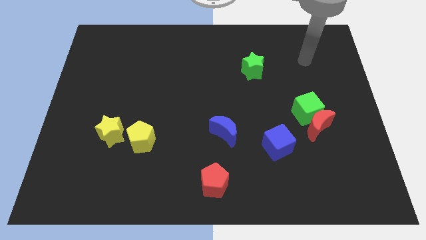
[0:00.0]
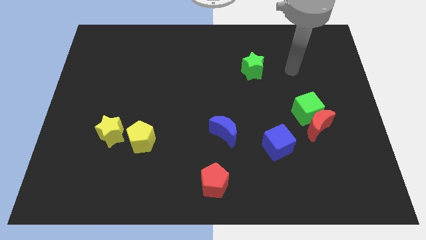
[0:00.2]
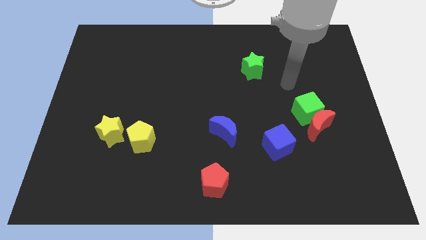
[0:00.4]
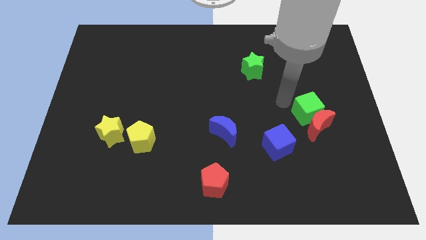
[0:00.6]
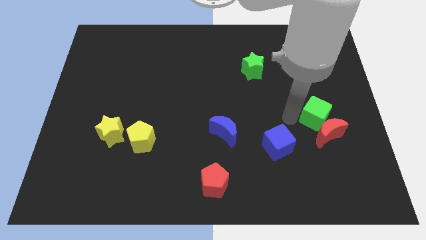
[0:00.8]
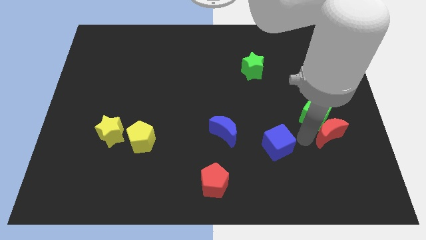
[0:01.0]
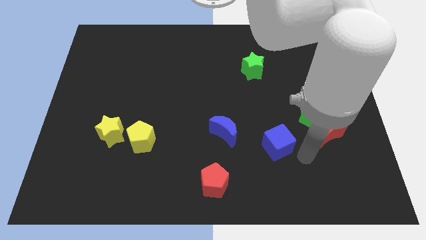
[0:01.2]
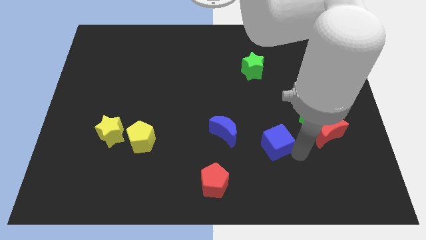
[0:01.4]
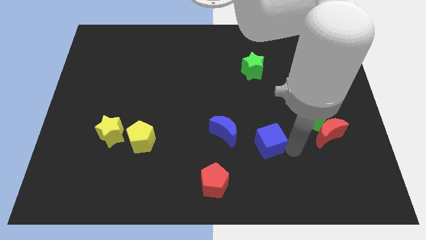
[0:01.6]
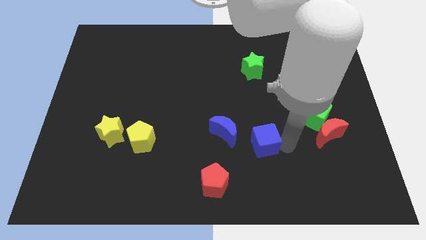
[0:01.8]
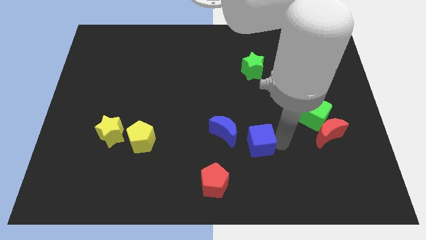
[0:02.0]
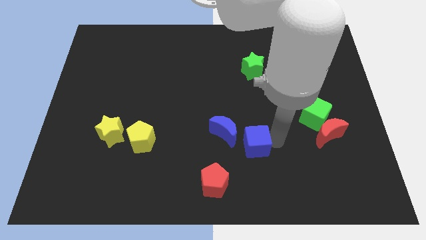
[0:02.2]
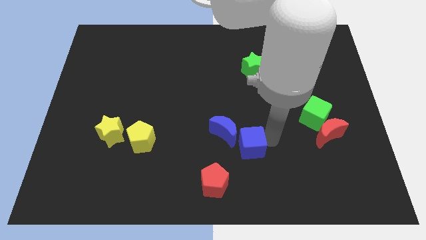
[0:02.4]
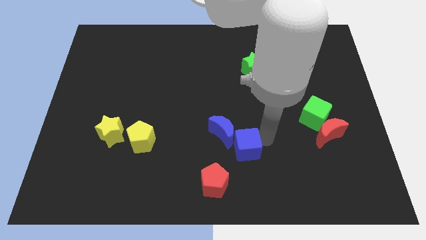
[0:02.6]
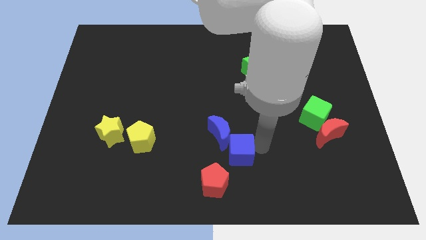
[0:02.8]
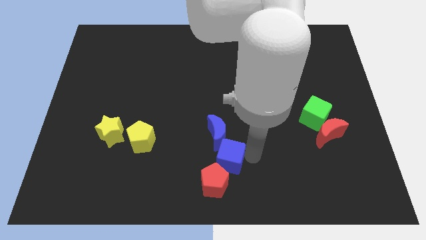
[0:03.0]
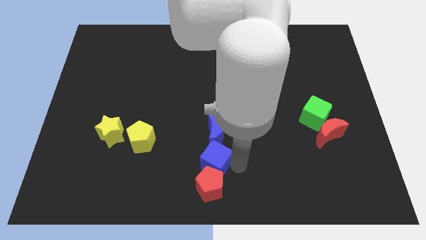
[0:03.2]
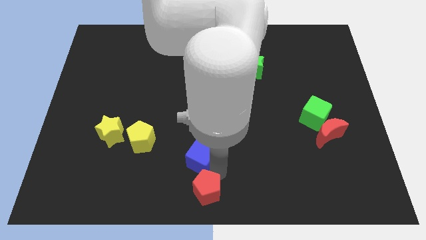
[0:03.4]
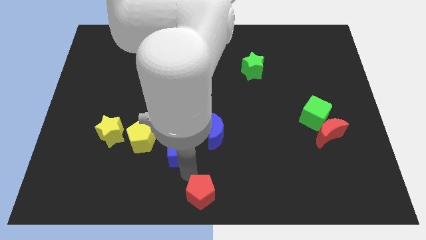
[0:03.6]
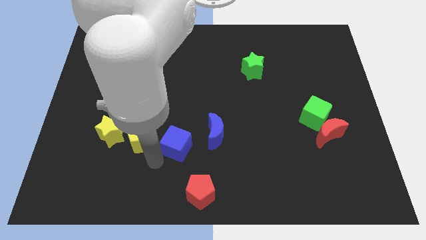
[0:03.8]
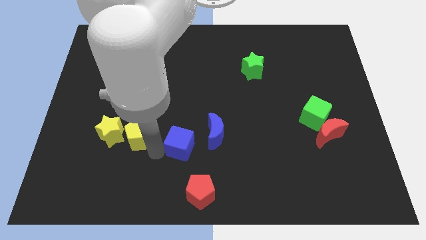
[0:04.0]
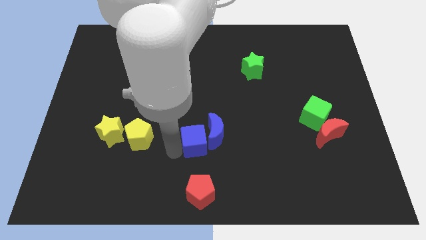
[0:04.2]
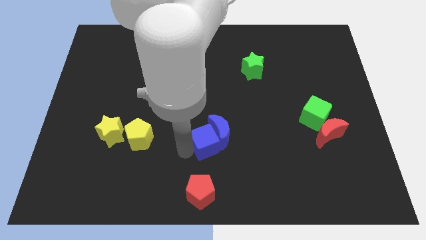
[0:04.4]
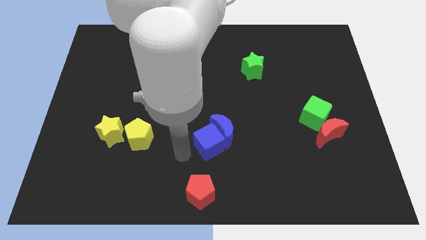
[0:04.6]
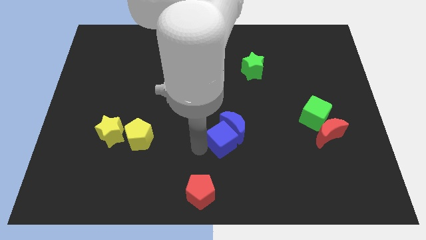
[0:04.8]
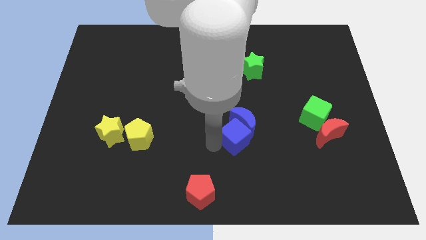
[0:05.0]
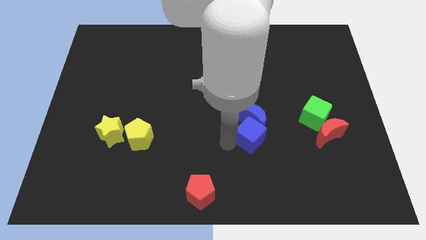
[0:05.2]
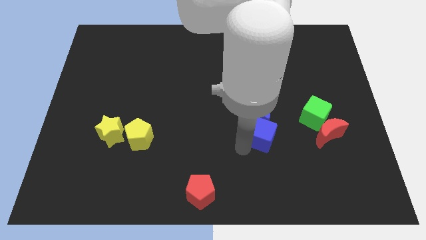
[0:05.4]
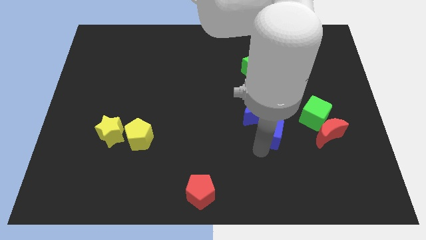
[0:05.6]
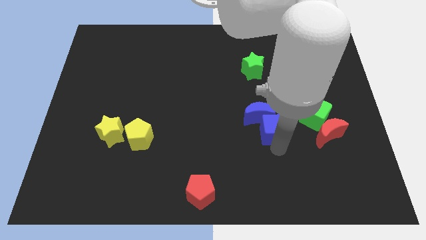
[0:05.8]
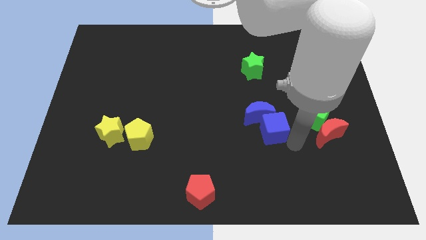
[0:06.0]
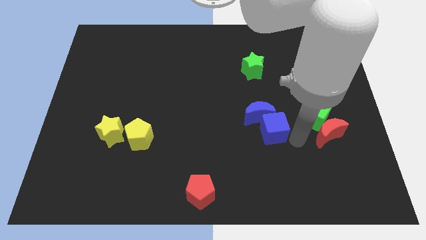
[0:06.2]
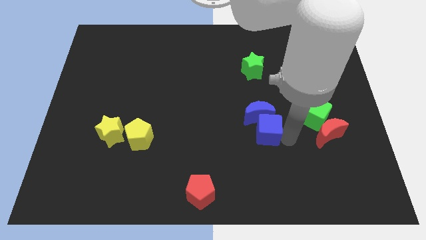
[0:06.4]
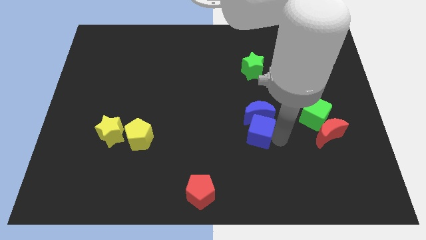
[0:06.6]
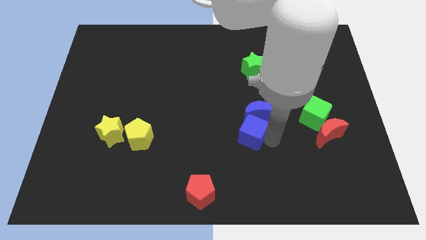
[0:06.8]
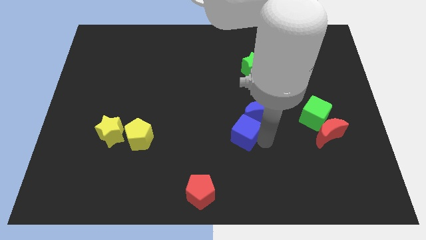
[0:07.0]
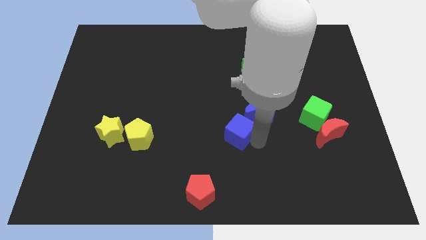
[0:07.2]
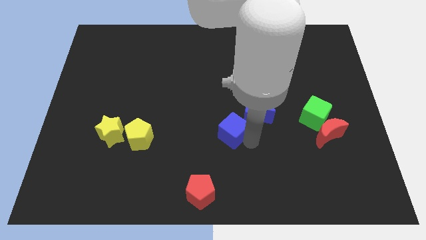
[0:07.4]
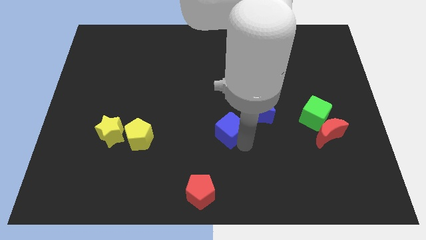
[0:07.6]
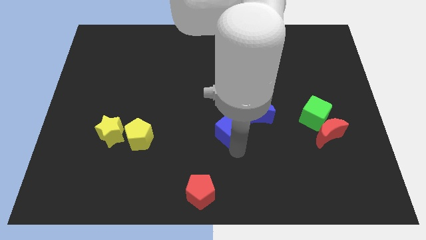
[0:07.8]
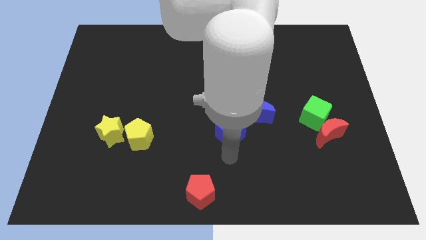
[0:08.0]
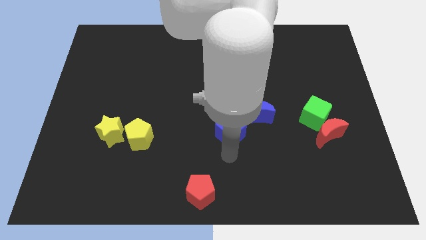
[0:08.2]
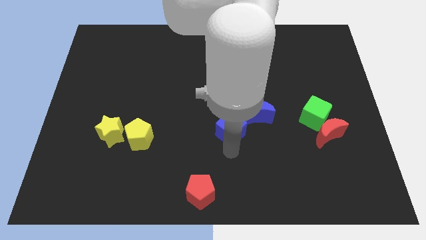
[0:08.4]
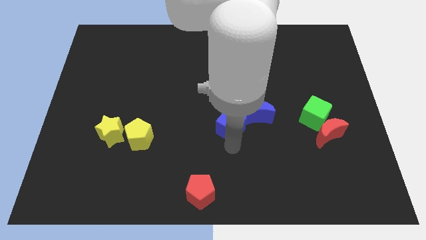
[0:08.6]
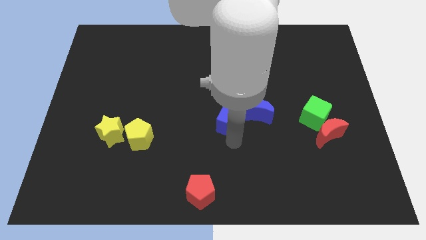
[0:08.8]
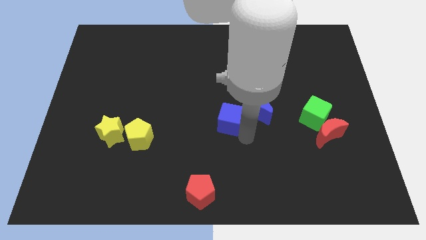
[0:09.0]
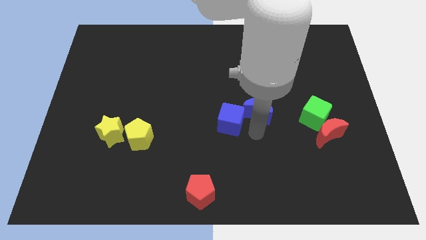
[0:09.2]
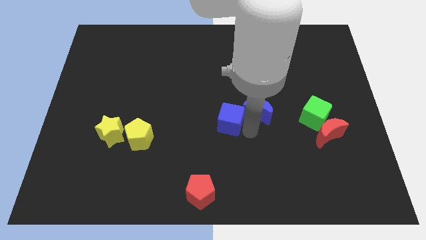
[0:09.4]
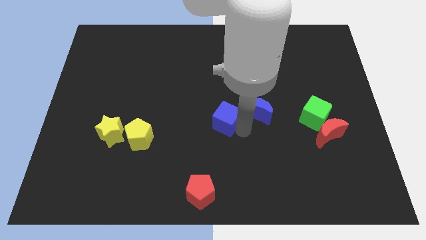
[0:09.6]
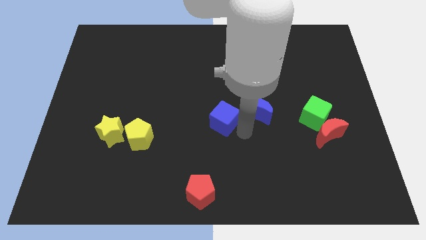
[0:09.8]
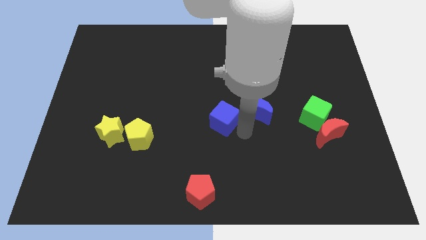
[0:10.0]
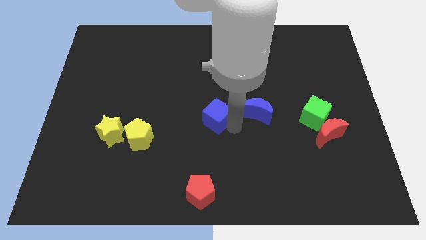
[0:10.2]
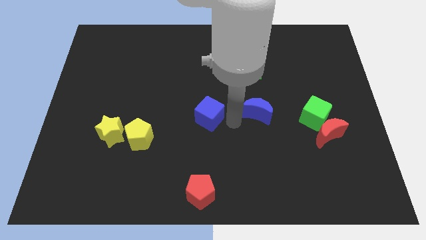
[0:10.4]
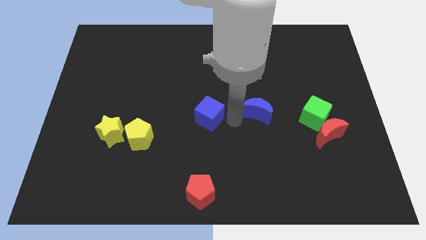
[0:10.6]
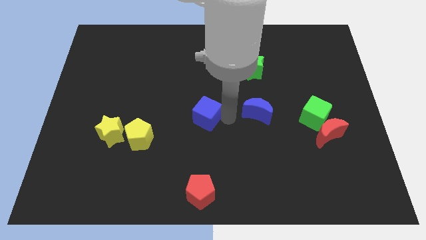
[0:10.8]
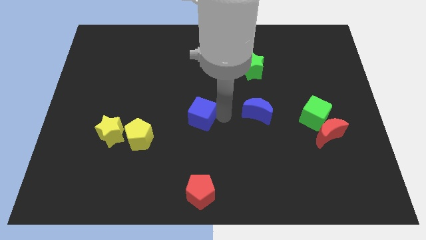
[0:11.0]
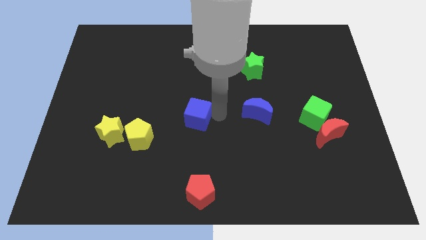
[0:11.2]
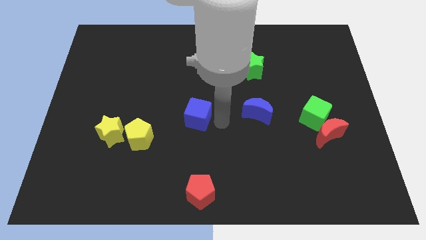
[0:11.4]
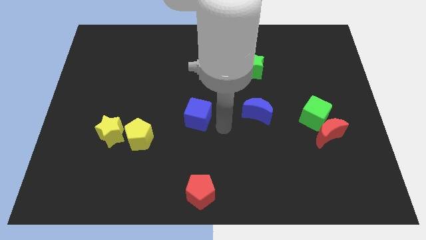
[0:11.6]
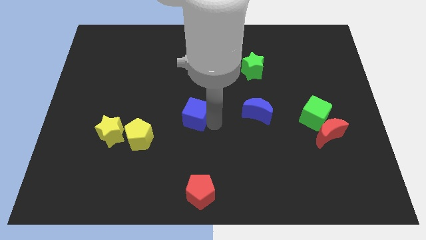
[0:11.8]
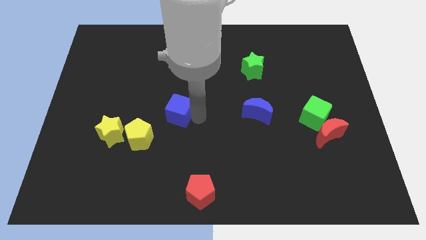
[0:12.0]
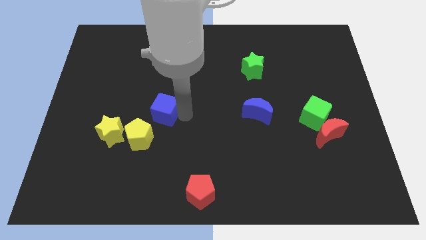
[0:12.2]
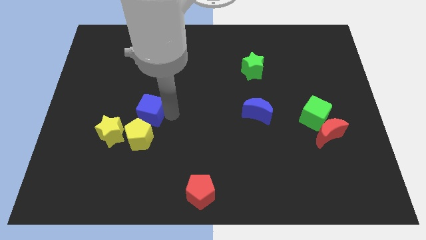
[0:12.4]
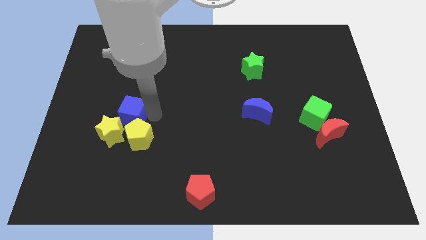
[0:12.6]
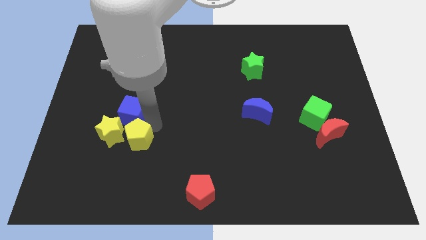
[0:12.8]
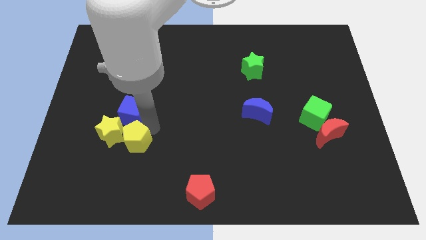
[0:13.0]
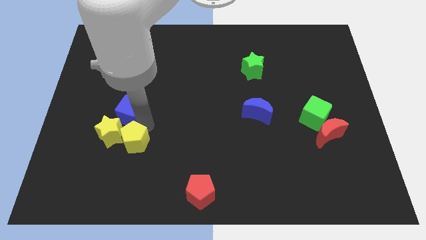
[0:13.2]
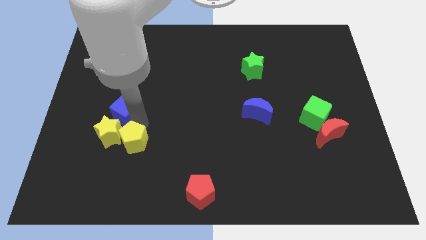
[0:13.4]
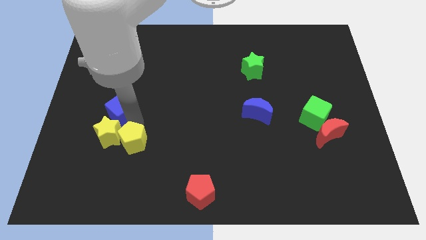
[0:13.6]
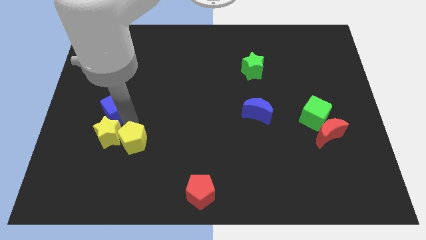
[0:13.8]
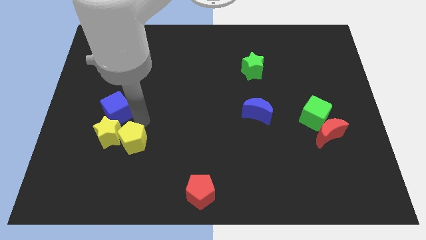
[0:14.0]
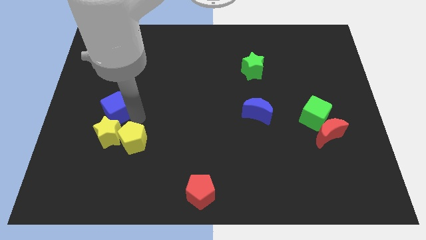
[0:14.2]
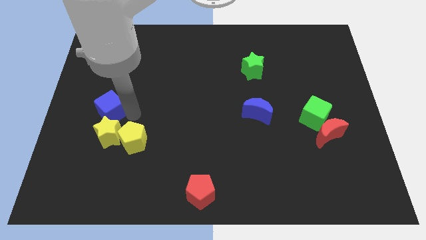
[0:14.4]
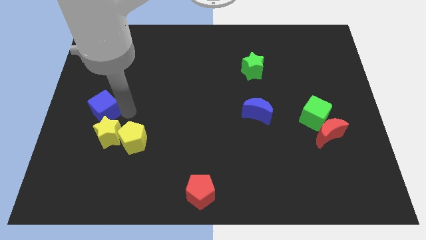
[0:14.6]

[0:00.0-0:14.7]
push the blue cube to the left side
